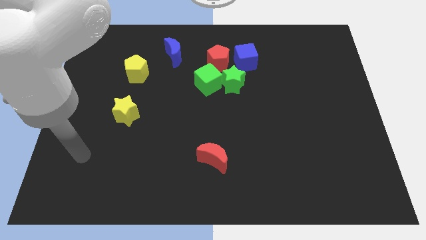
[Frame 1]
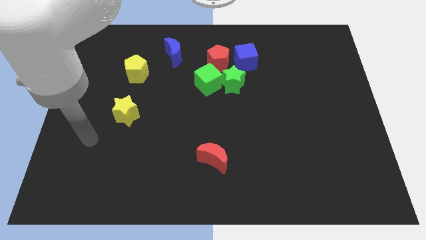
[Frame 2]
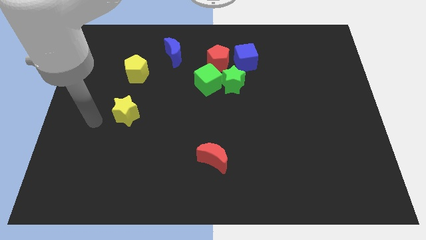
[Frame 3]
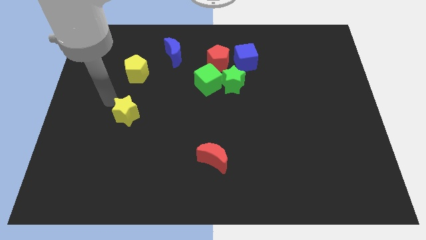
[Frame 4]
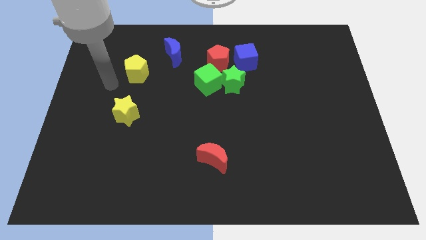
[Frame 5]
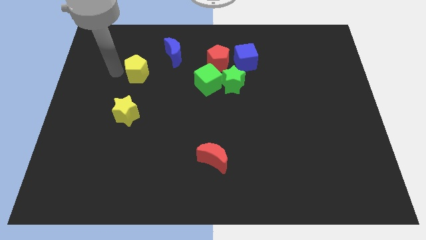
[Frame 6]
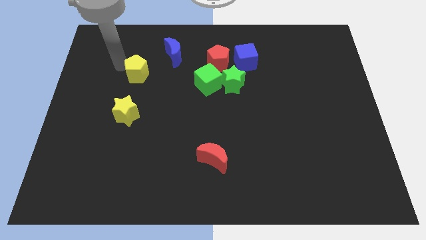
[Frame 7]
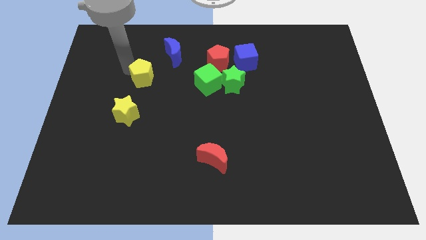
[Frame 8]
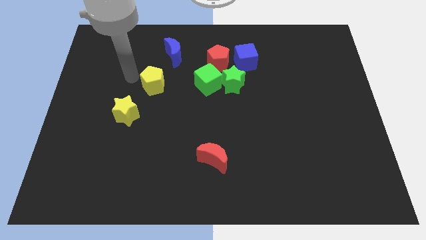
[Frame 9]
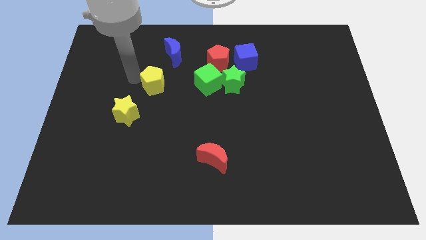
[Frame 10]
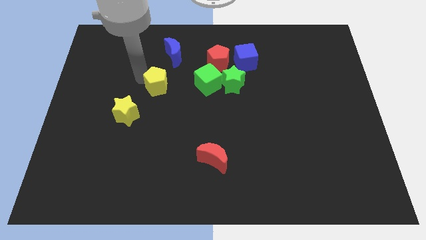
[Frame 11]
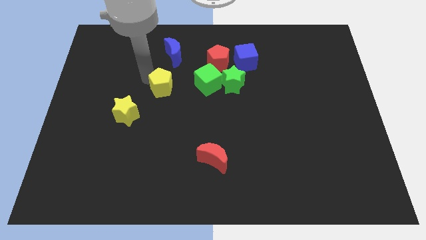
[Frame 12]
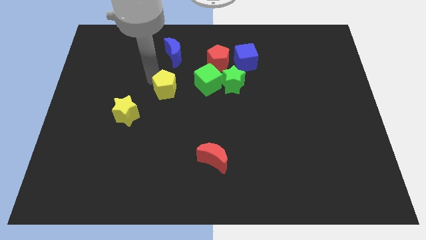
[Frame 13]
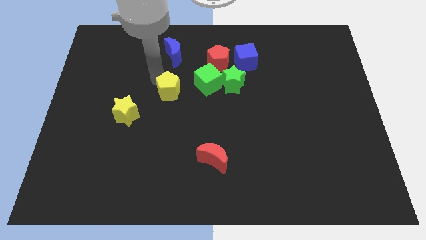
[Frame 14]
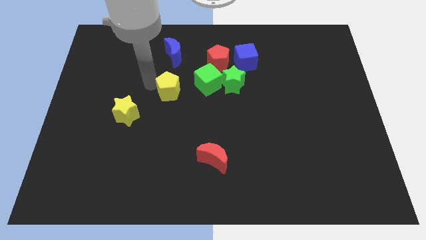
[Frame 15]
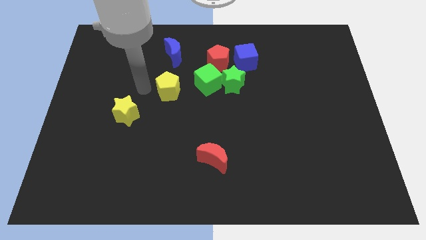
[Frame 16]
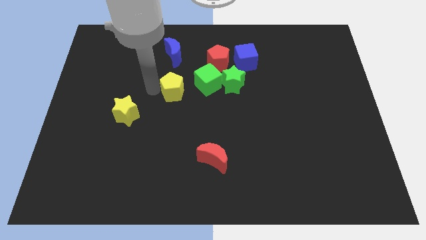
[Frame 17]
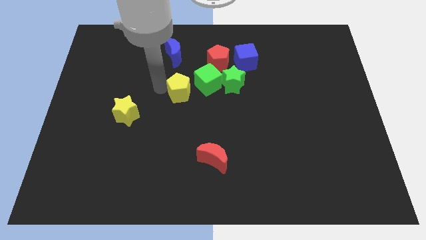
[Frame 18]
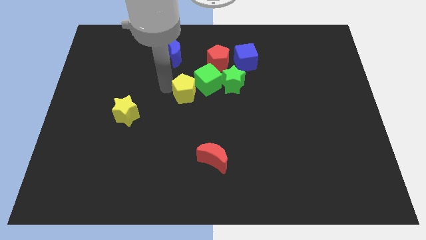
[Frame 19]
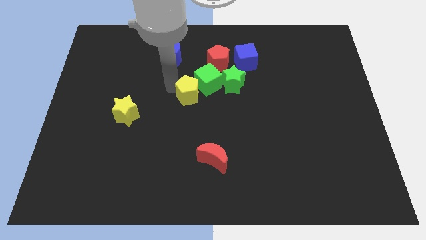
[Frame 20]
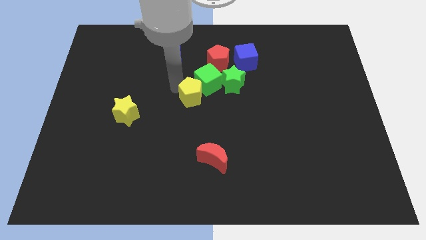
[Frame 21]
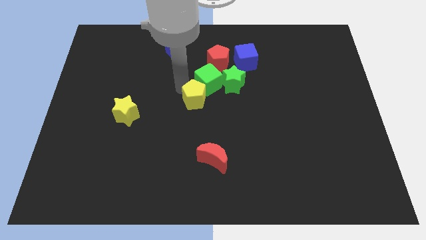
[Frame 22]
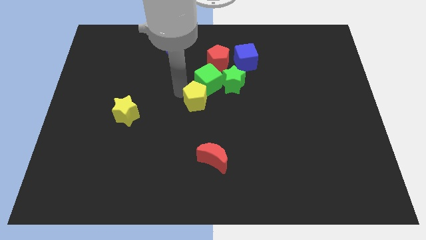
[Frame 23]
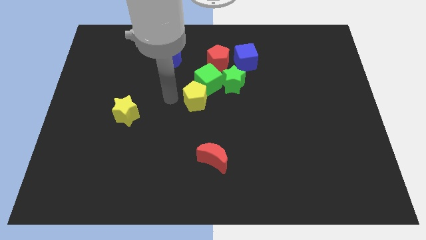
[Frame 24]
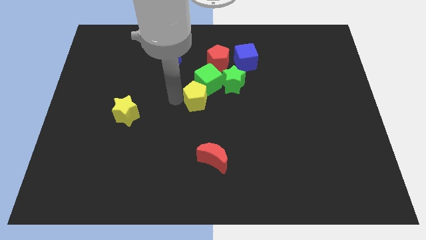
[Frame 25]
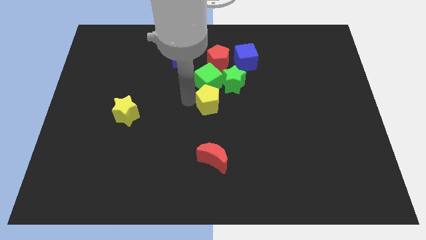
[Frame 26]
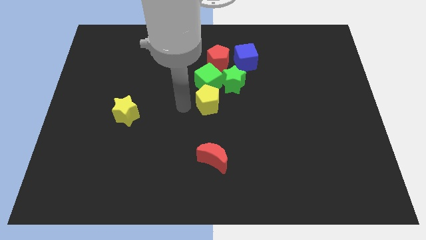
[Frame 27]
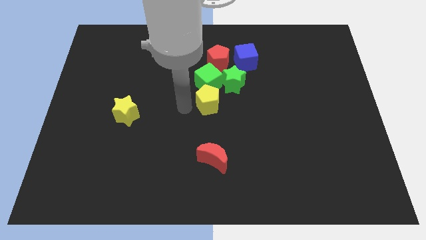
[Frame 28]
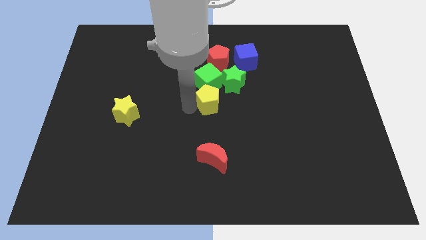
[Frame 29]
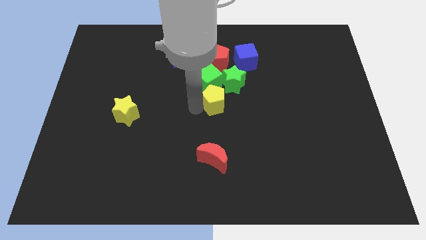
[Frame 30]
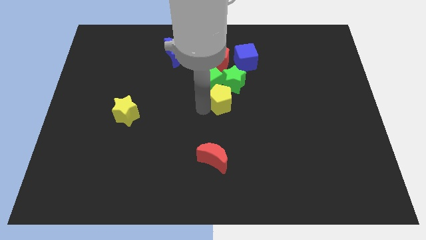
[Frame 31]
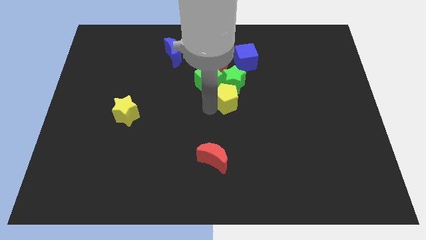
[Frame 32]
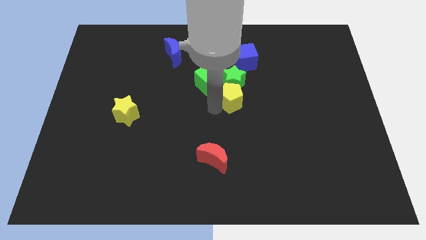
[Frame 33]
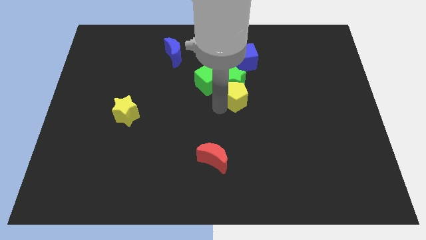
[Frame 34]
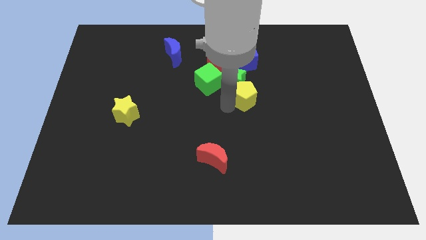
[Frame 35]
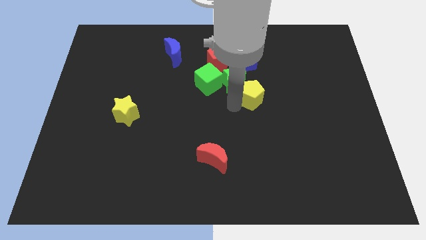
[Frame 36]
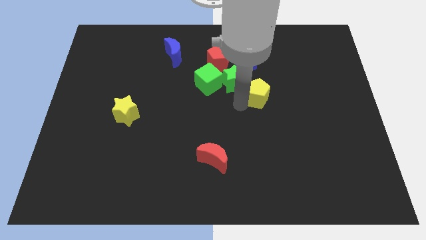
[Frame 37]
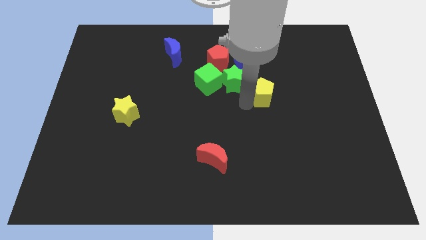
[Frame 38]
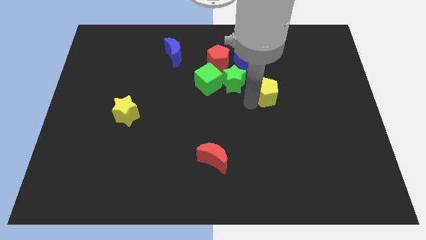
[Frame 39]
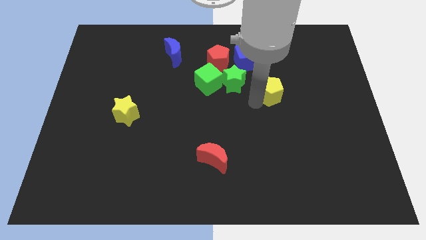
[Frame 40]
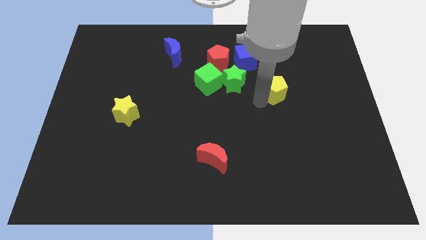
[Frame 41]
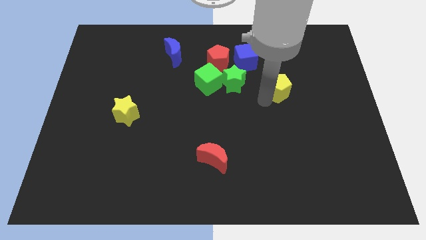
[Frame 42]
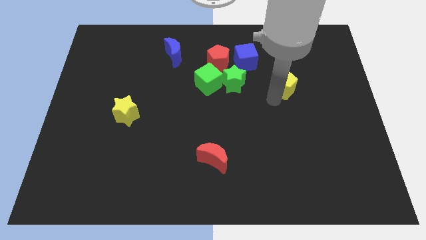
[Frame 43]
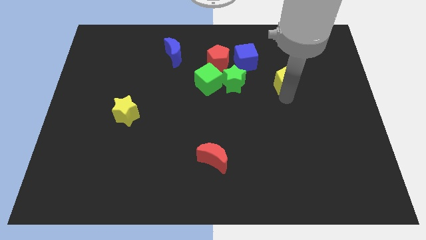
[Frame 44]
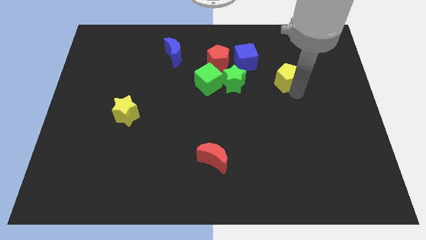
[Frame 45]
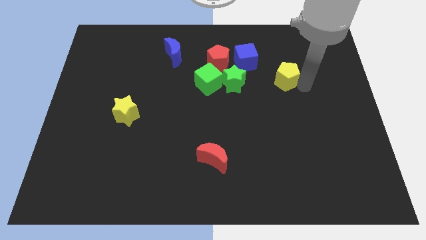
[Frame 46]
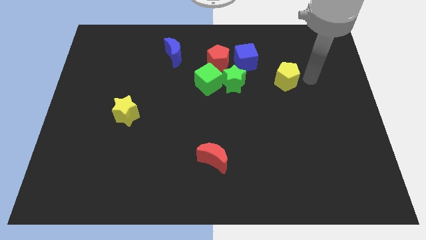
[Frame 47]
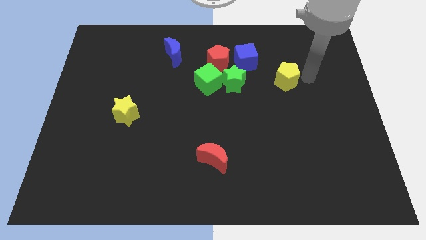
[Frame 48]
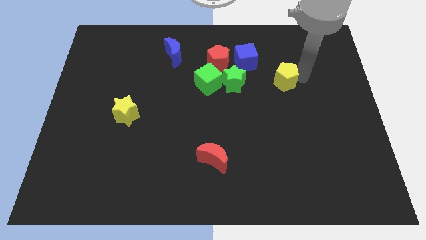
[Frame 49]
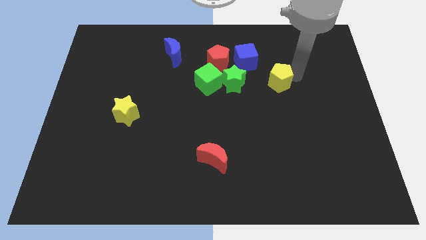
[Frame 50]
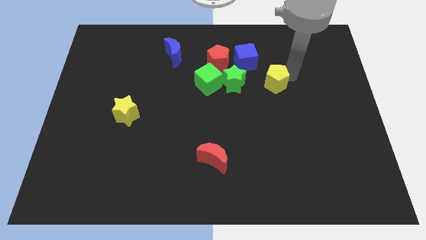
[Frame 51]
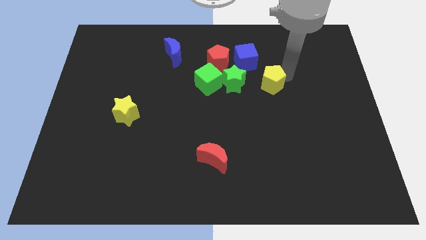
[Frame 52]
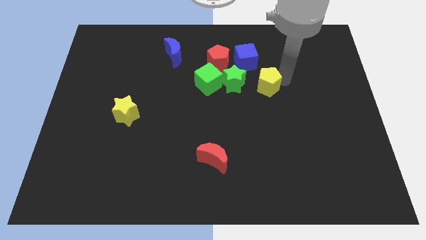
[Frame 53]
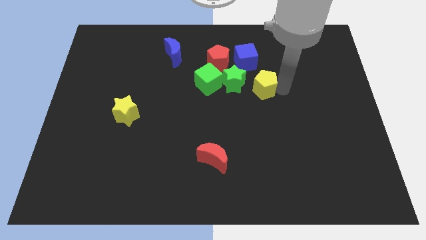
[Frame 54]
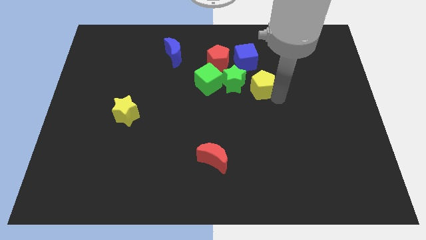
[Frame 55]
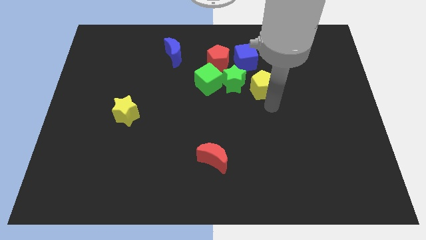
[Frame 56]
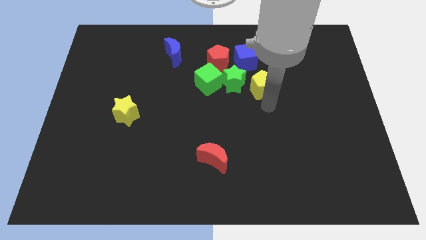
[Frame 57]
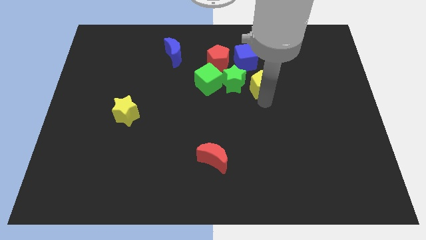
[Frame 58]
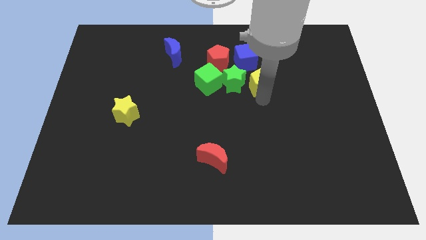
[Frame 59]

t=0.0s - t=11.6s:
push the yellow pentagon to the top right side of the green star

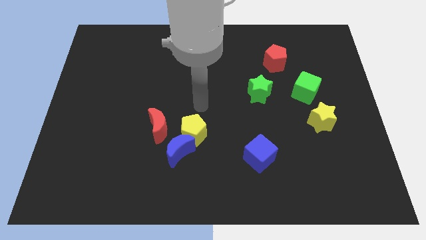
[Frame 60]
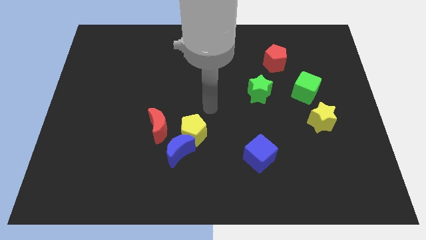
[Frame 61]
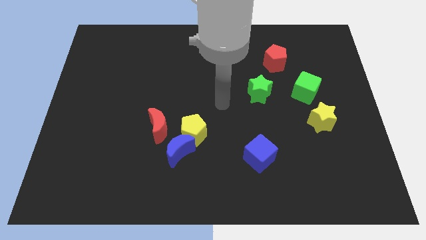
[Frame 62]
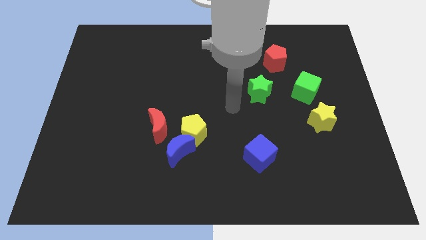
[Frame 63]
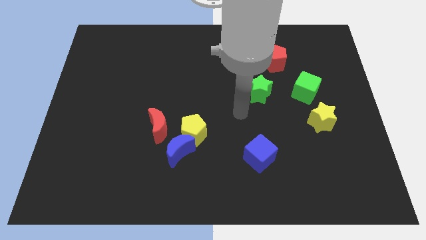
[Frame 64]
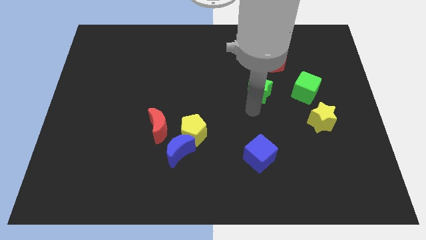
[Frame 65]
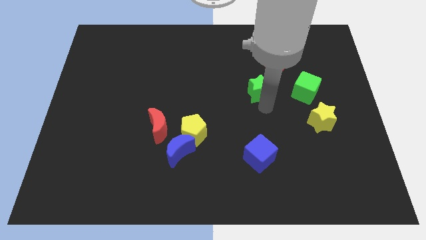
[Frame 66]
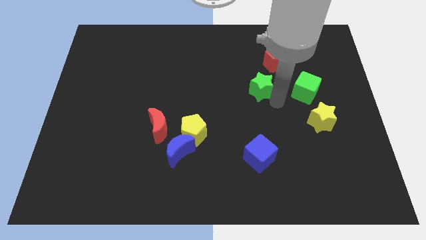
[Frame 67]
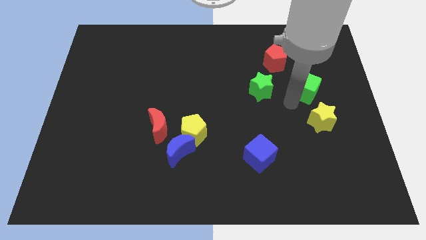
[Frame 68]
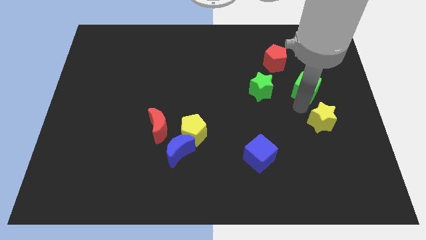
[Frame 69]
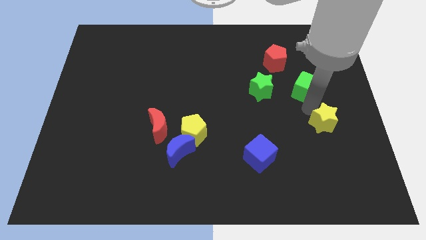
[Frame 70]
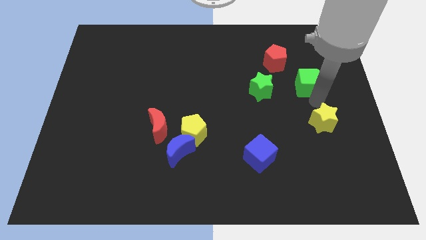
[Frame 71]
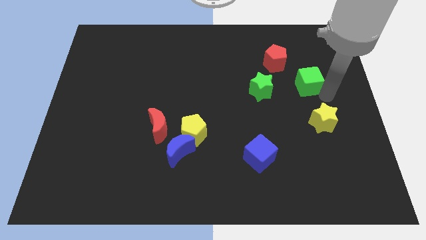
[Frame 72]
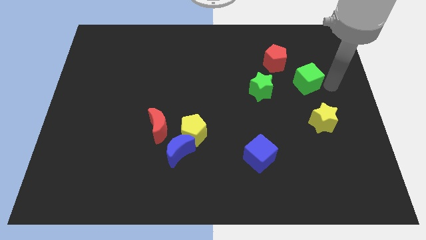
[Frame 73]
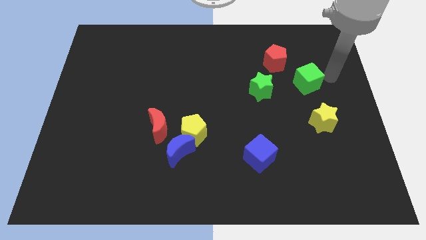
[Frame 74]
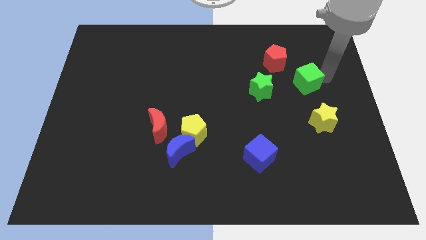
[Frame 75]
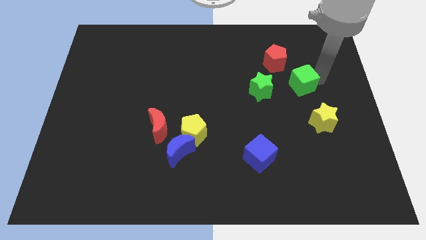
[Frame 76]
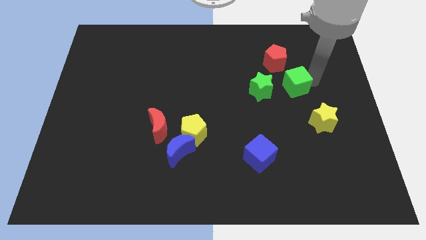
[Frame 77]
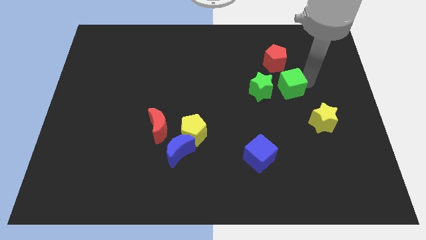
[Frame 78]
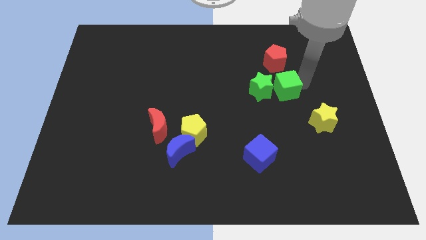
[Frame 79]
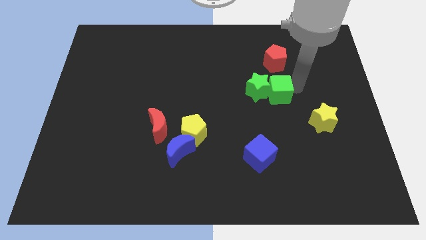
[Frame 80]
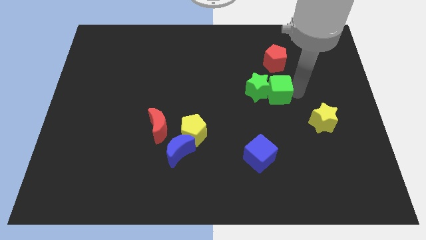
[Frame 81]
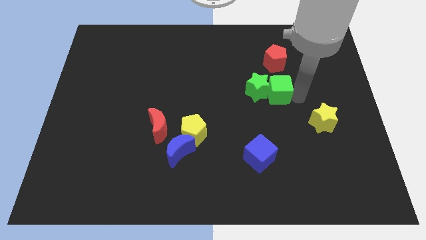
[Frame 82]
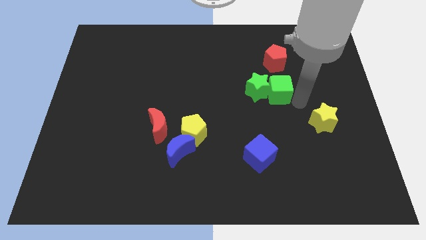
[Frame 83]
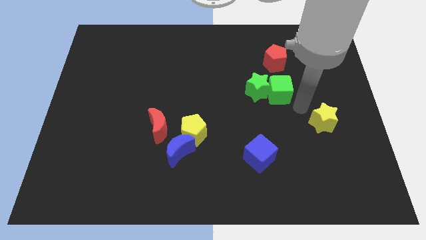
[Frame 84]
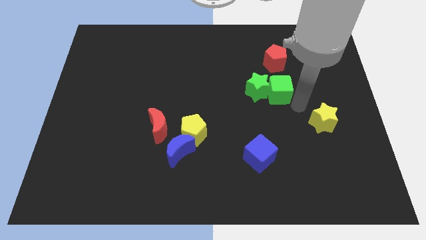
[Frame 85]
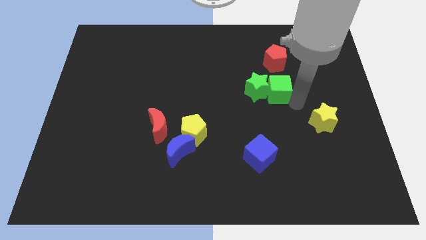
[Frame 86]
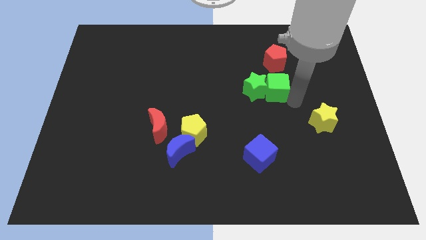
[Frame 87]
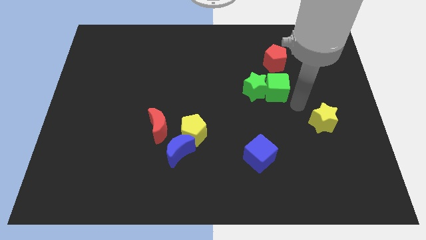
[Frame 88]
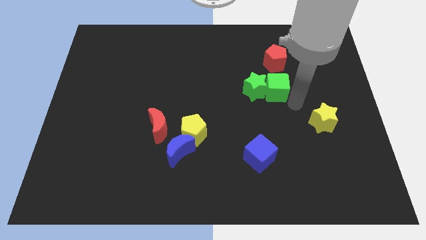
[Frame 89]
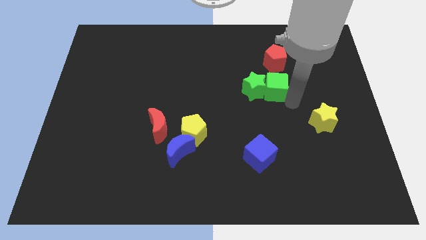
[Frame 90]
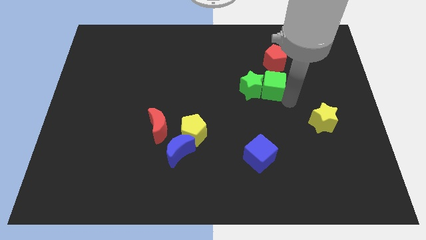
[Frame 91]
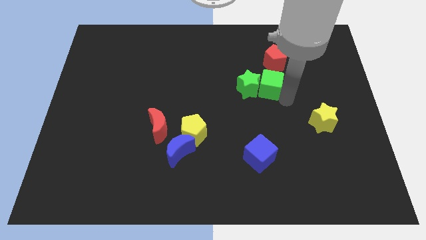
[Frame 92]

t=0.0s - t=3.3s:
push the green cube diagonally down and to the left of the red pentagon
